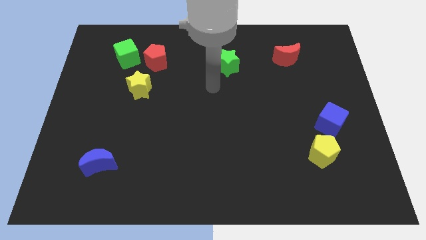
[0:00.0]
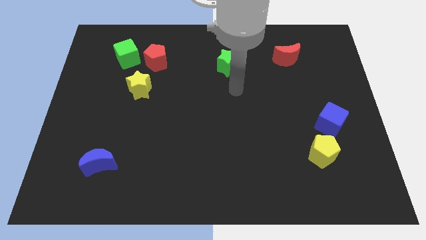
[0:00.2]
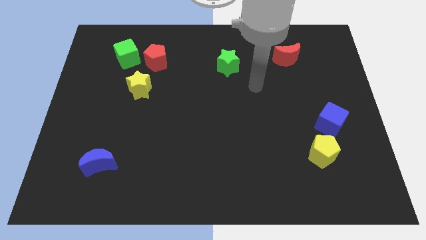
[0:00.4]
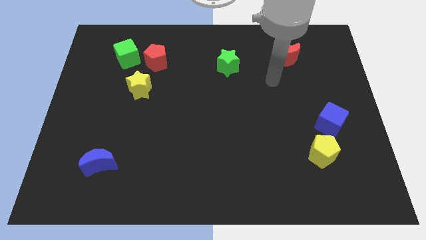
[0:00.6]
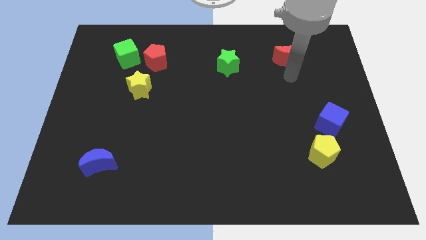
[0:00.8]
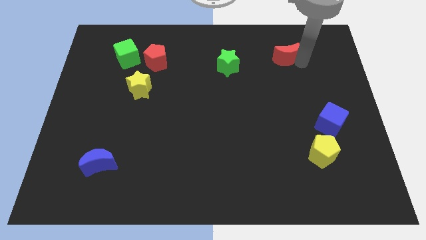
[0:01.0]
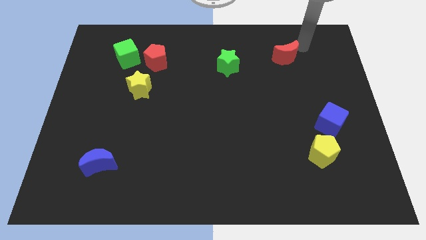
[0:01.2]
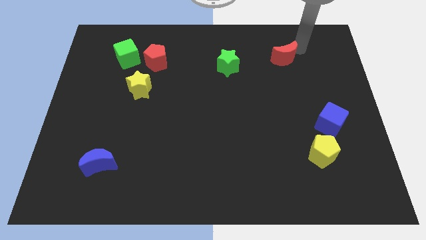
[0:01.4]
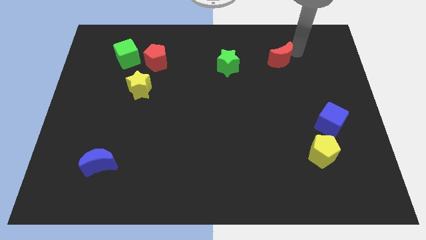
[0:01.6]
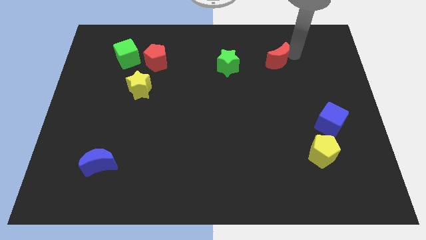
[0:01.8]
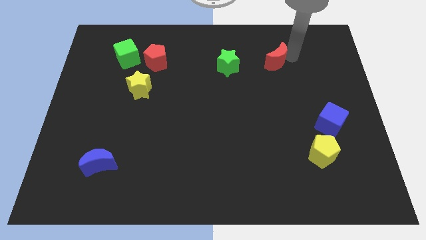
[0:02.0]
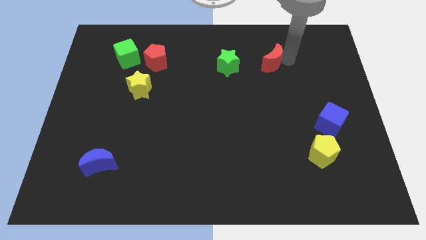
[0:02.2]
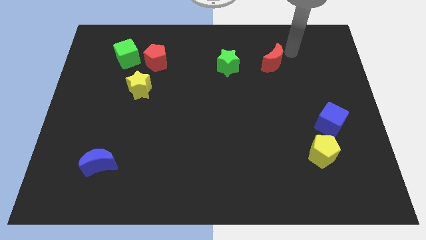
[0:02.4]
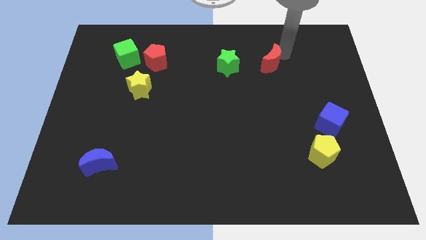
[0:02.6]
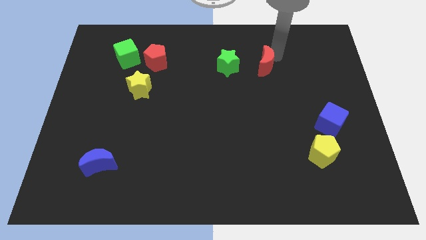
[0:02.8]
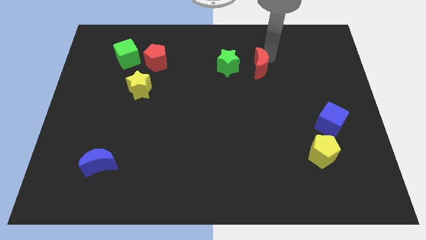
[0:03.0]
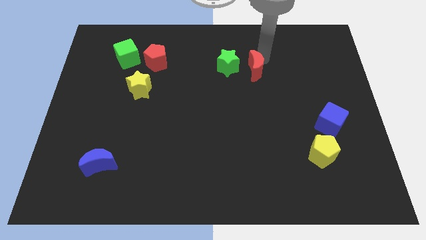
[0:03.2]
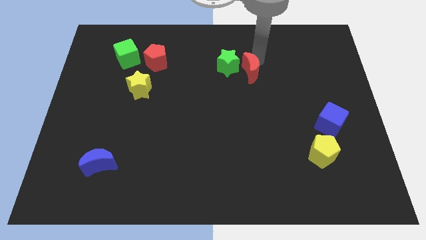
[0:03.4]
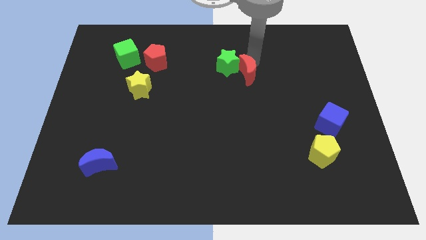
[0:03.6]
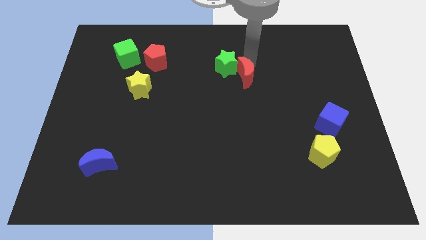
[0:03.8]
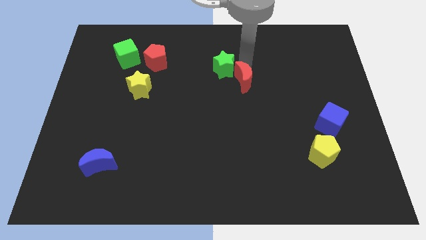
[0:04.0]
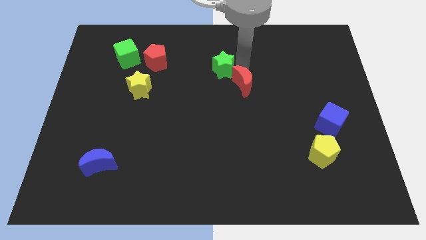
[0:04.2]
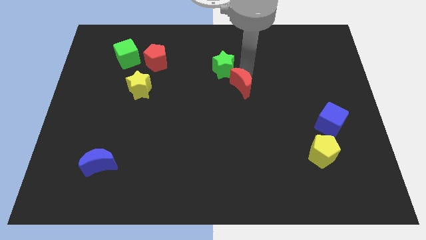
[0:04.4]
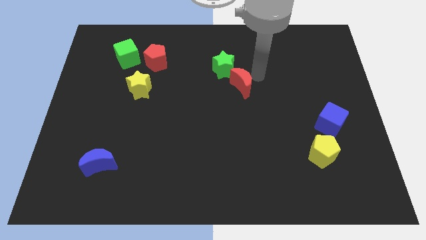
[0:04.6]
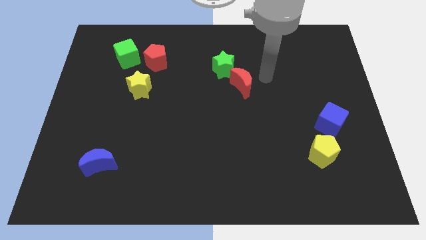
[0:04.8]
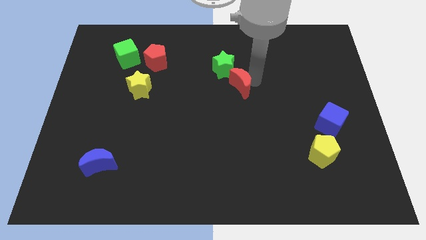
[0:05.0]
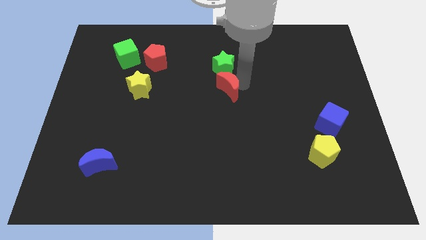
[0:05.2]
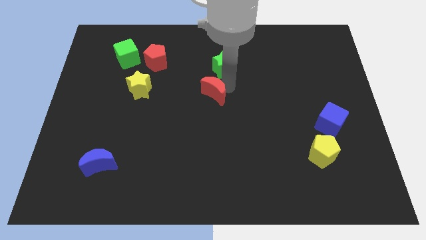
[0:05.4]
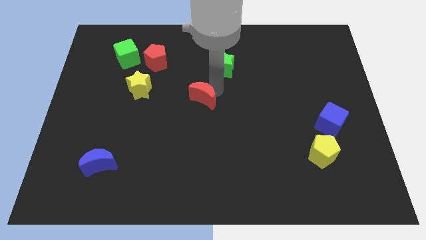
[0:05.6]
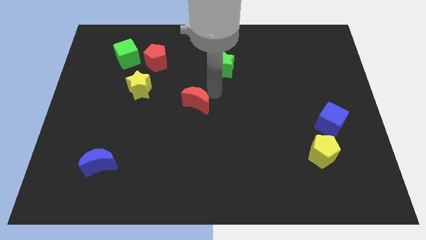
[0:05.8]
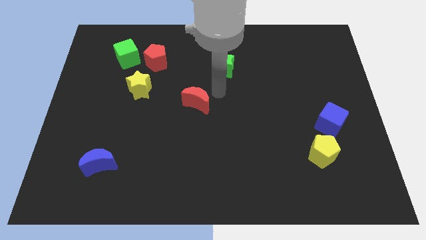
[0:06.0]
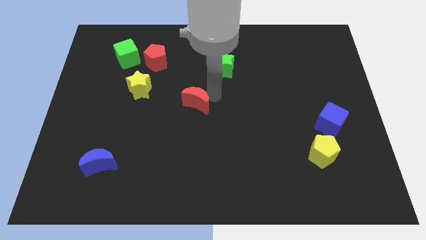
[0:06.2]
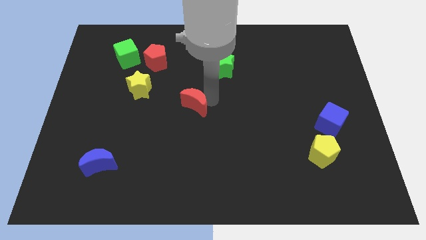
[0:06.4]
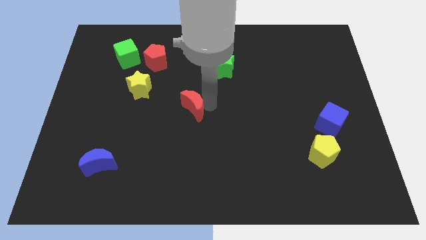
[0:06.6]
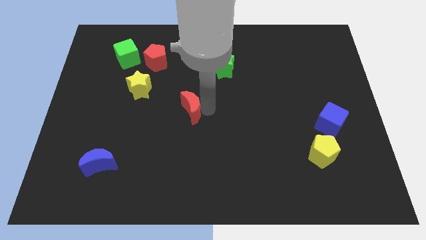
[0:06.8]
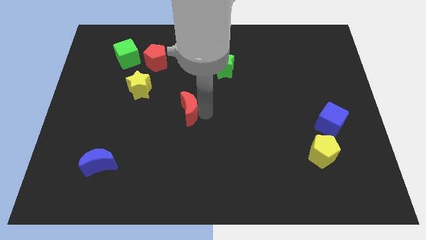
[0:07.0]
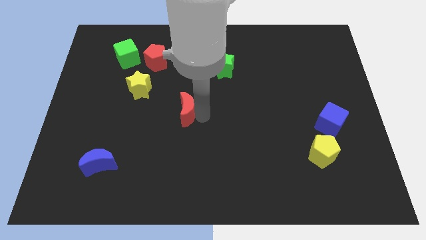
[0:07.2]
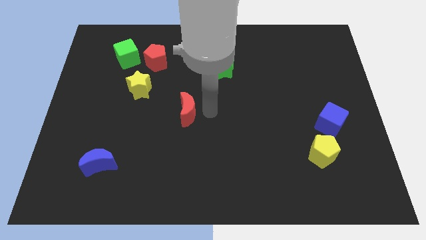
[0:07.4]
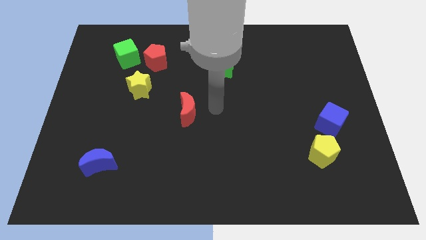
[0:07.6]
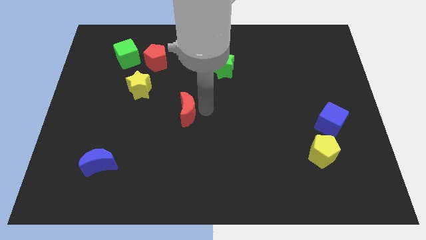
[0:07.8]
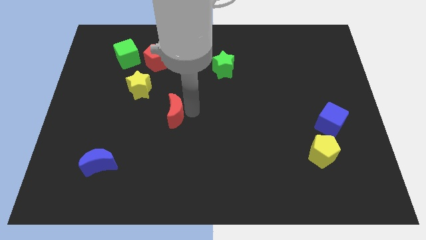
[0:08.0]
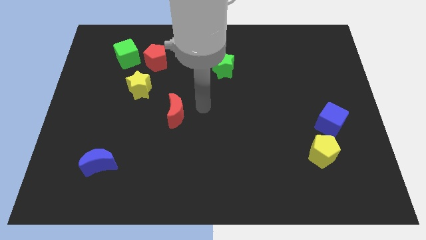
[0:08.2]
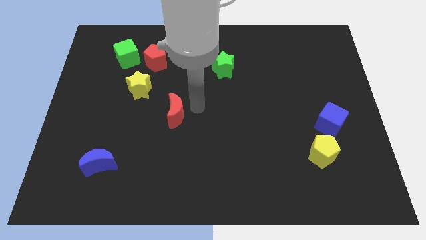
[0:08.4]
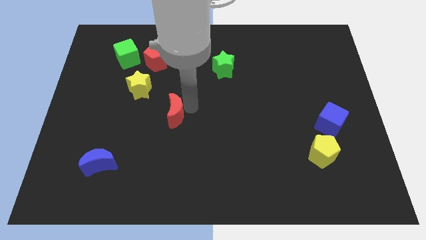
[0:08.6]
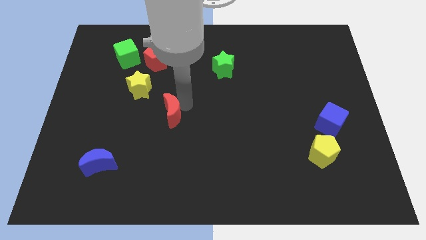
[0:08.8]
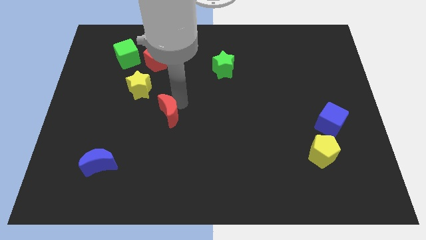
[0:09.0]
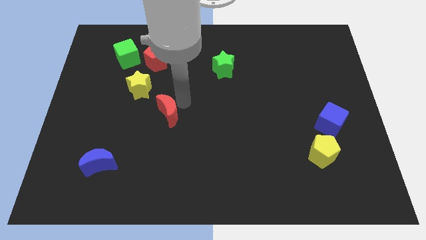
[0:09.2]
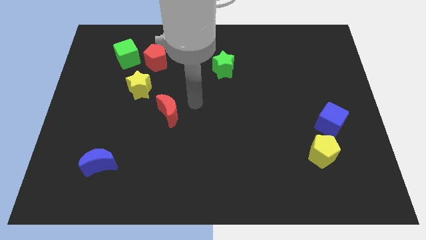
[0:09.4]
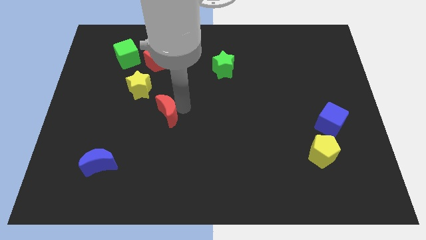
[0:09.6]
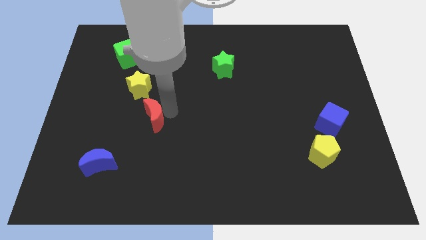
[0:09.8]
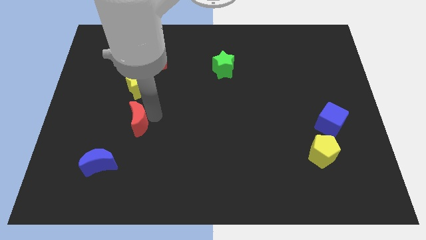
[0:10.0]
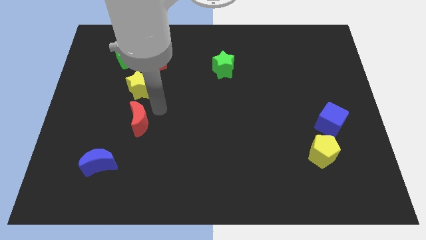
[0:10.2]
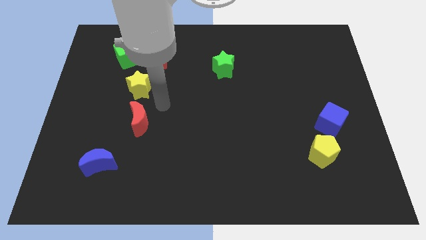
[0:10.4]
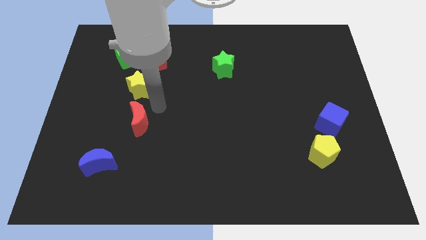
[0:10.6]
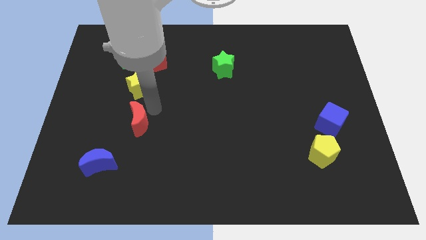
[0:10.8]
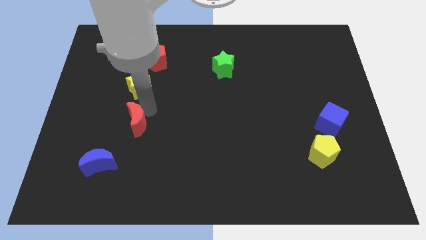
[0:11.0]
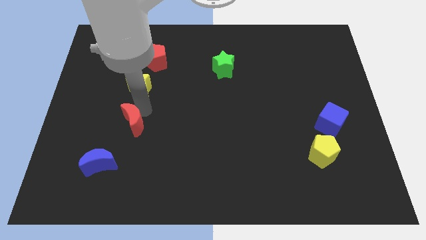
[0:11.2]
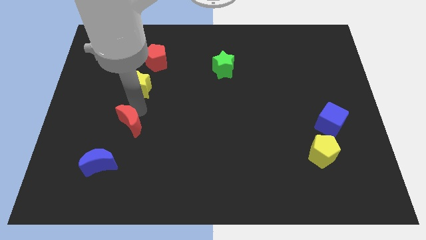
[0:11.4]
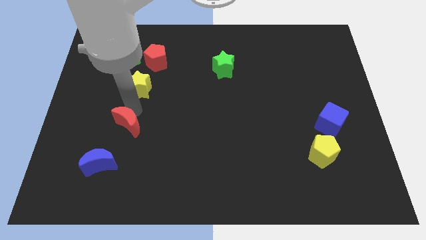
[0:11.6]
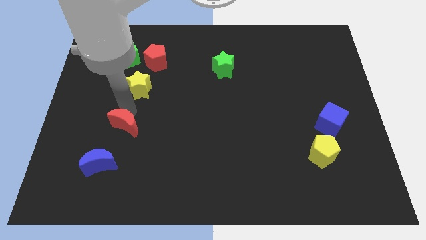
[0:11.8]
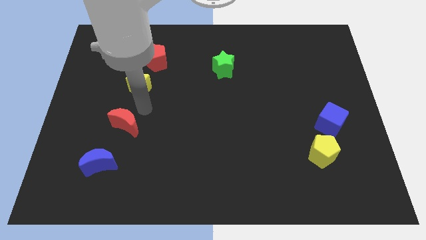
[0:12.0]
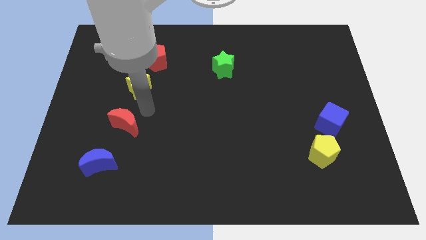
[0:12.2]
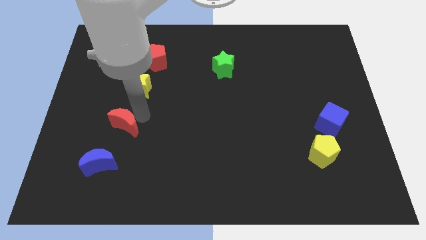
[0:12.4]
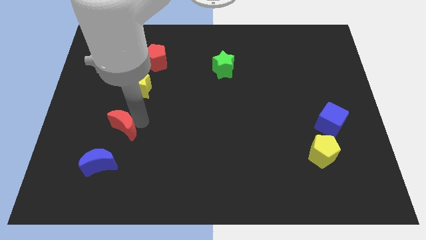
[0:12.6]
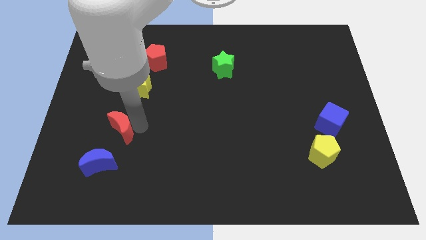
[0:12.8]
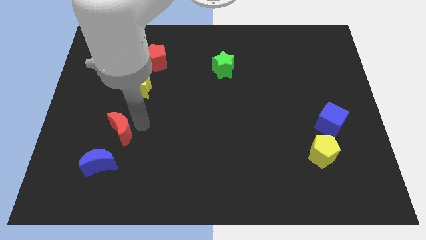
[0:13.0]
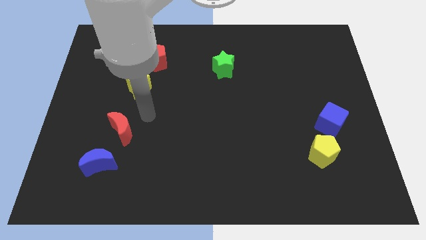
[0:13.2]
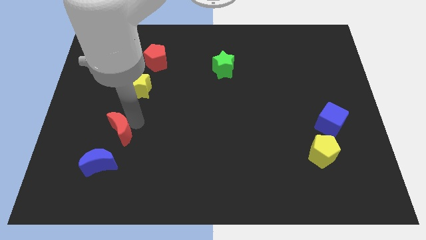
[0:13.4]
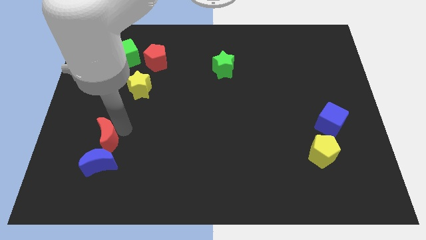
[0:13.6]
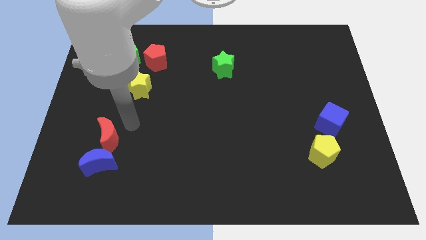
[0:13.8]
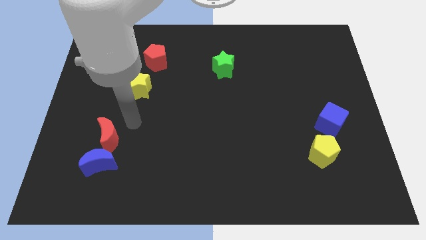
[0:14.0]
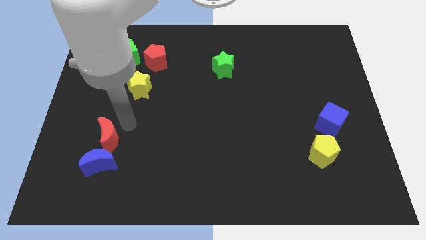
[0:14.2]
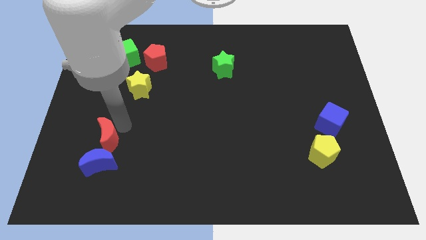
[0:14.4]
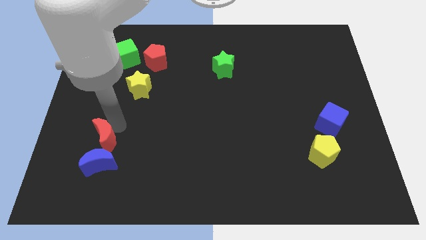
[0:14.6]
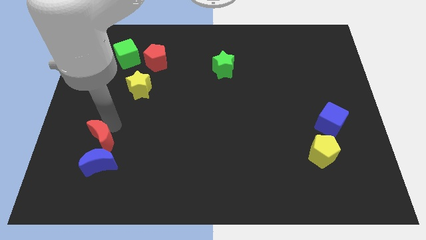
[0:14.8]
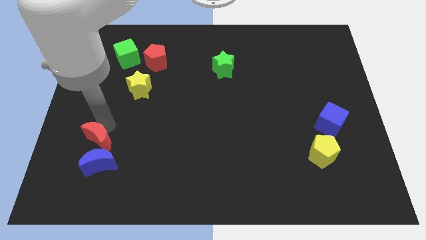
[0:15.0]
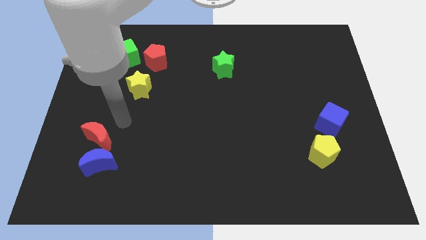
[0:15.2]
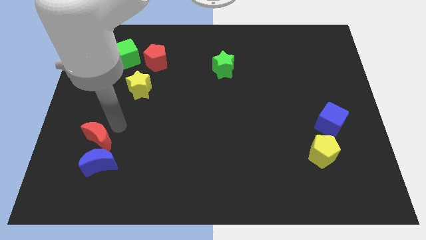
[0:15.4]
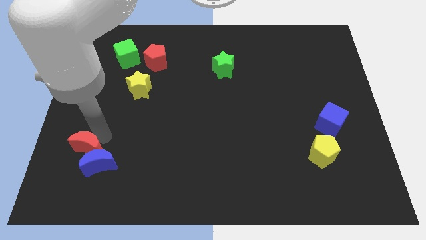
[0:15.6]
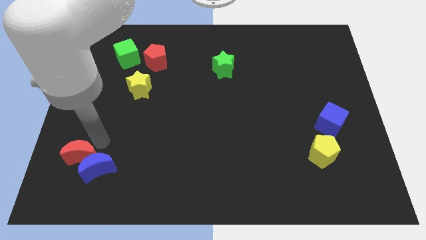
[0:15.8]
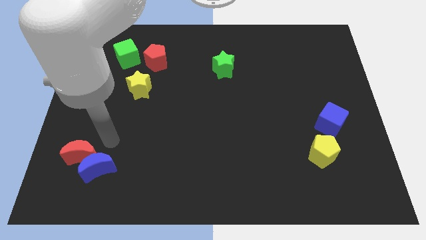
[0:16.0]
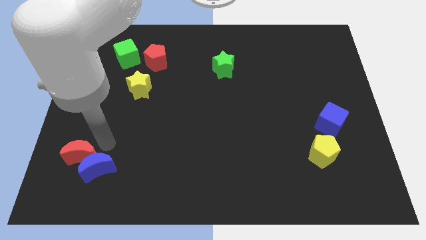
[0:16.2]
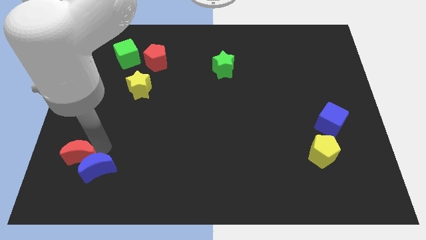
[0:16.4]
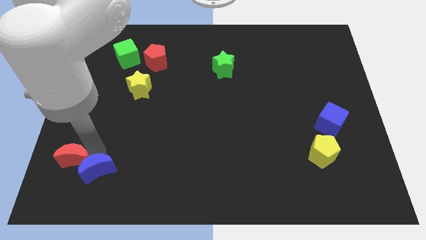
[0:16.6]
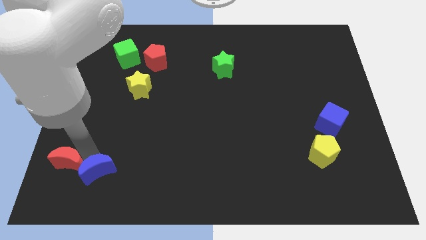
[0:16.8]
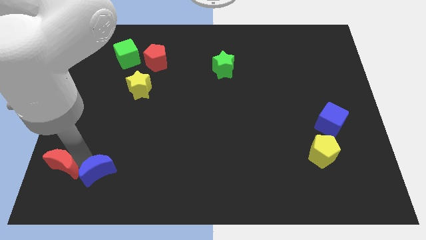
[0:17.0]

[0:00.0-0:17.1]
slide the red moon to the bottom left corner
